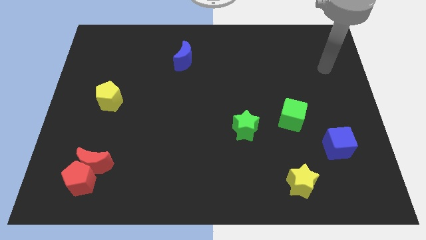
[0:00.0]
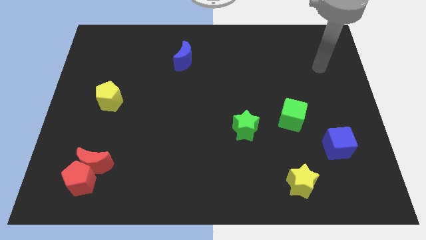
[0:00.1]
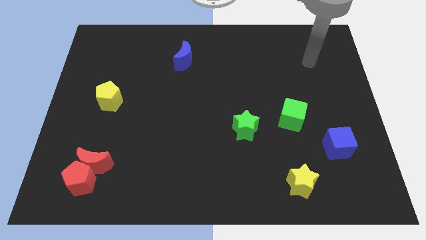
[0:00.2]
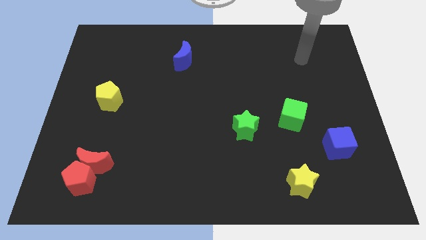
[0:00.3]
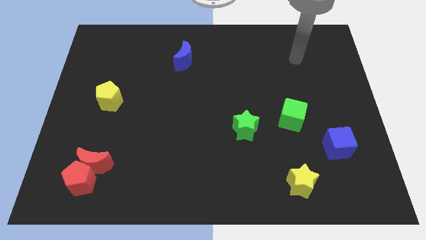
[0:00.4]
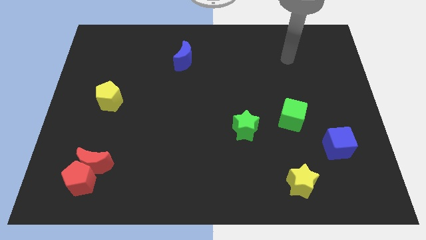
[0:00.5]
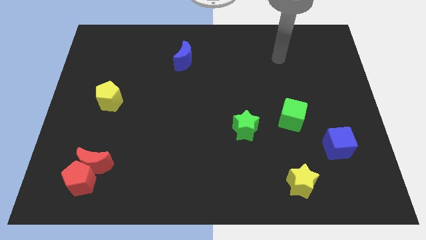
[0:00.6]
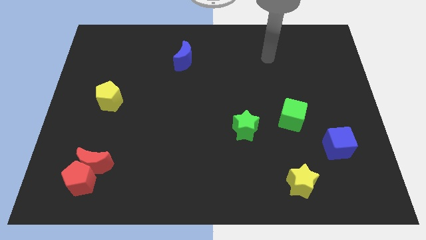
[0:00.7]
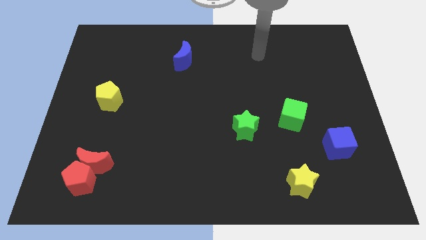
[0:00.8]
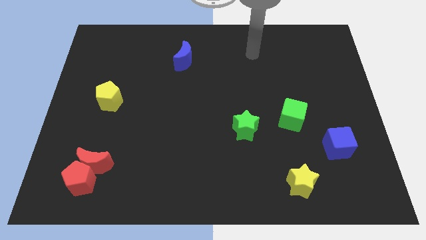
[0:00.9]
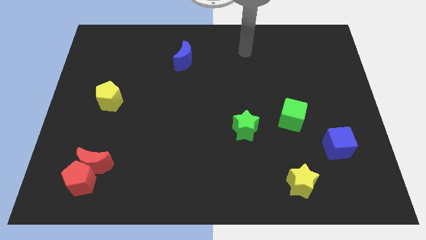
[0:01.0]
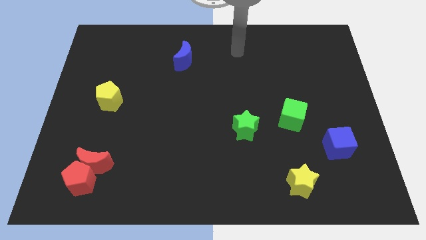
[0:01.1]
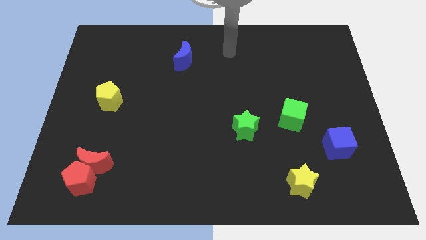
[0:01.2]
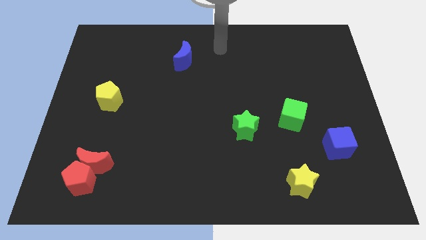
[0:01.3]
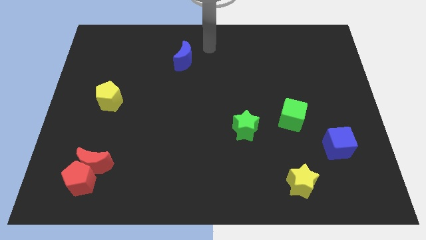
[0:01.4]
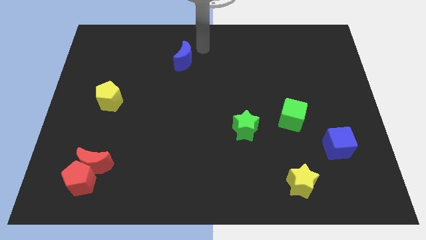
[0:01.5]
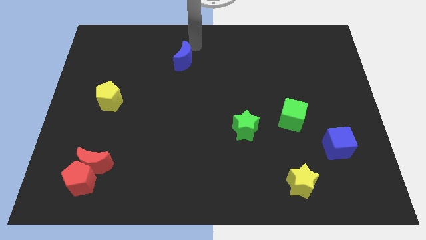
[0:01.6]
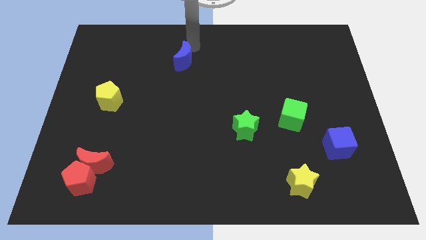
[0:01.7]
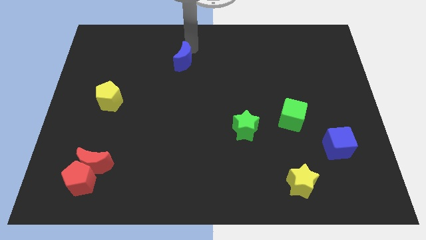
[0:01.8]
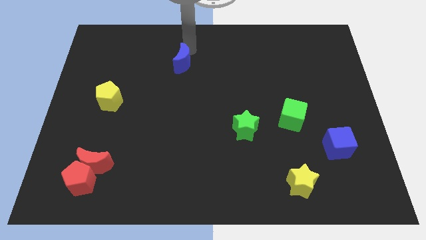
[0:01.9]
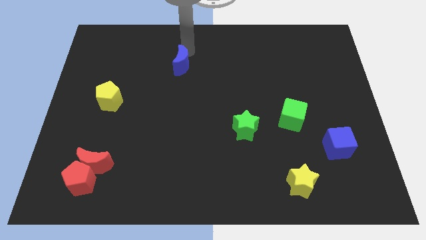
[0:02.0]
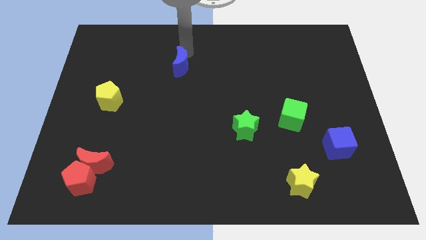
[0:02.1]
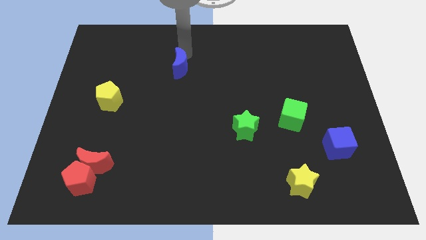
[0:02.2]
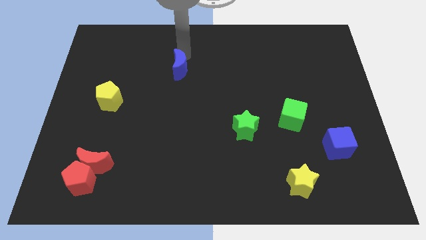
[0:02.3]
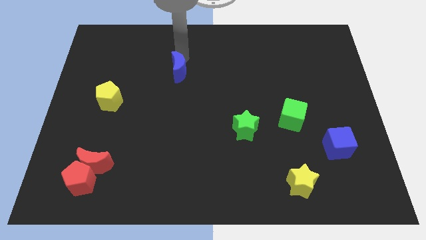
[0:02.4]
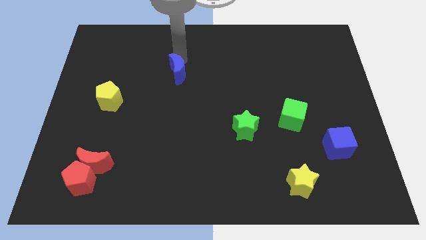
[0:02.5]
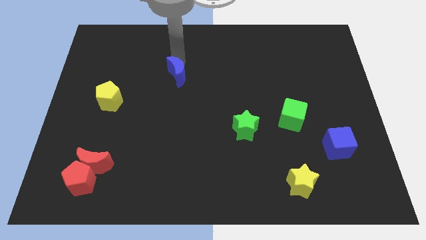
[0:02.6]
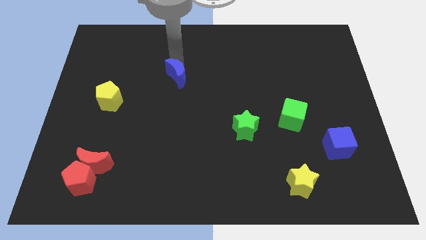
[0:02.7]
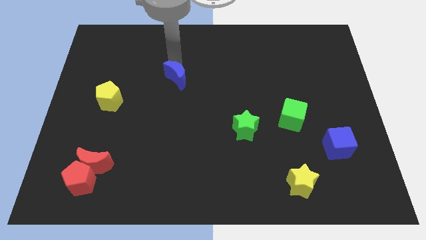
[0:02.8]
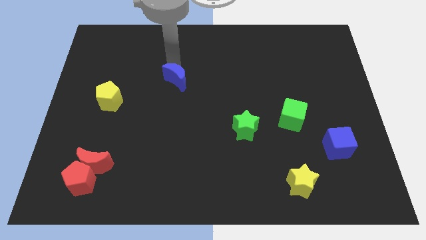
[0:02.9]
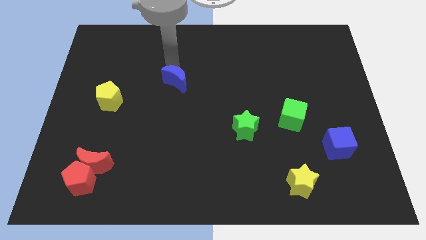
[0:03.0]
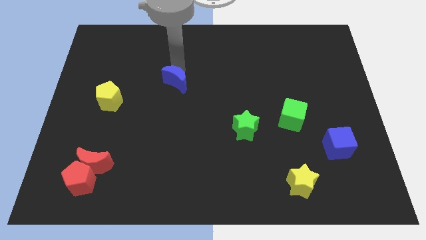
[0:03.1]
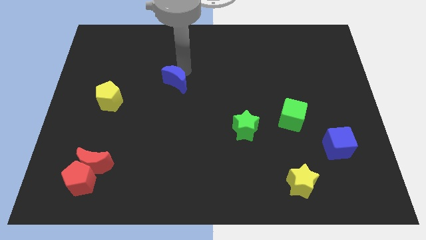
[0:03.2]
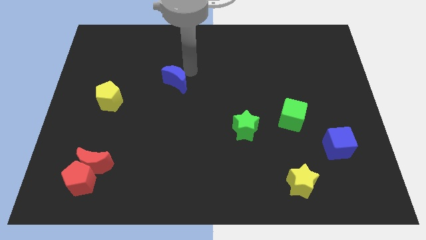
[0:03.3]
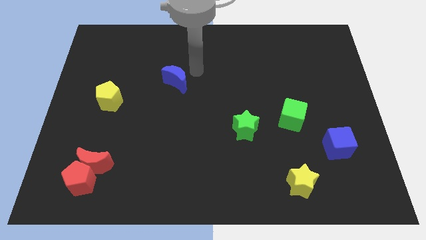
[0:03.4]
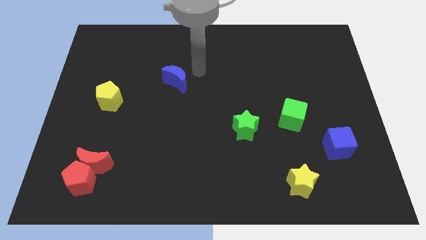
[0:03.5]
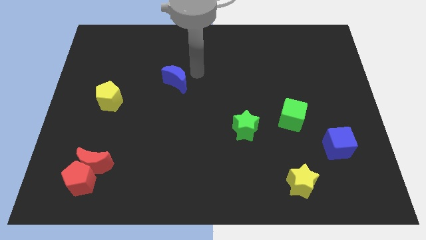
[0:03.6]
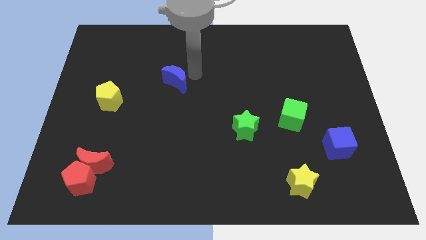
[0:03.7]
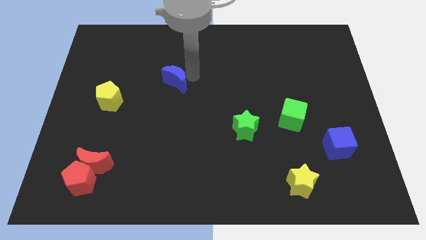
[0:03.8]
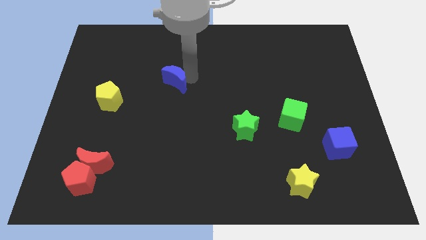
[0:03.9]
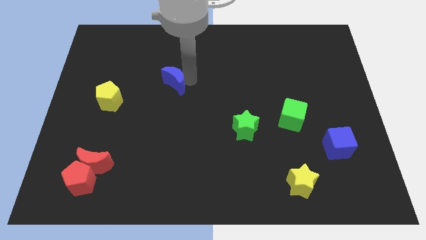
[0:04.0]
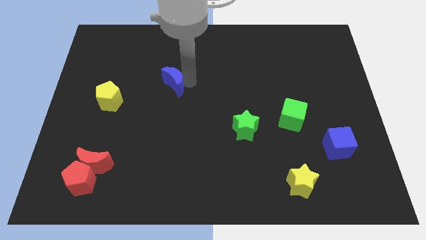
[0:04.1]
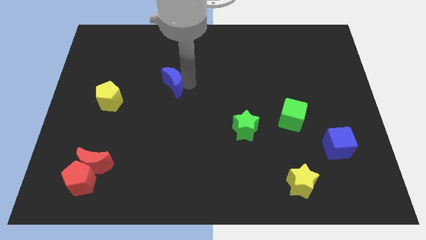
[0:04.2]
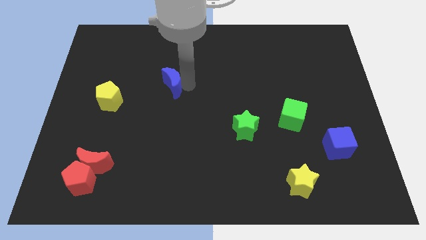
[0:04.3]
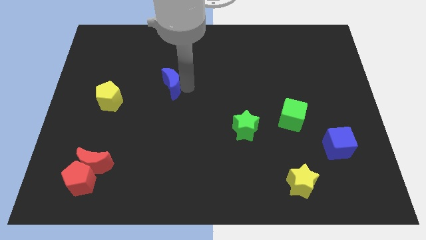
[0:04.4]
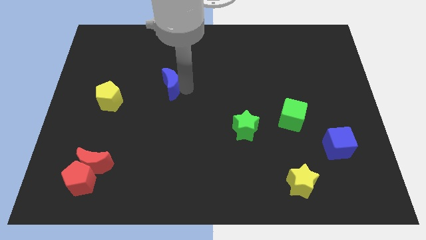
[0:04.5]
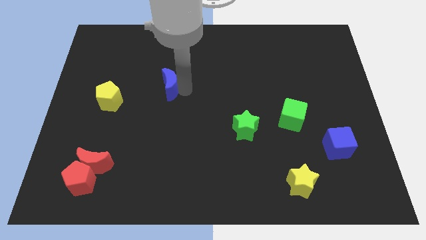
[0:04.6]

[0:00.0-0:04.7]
push the blue moon to the right side of the yellow pentagon

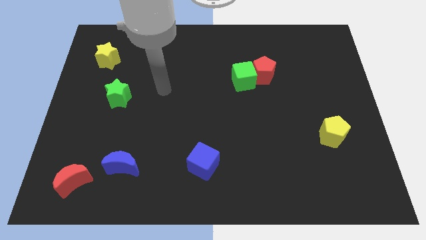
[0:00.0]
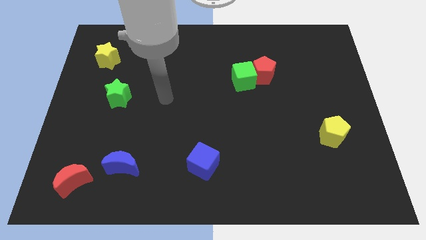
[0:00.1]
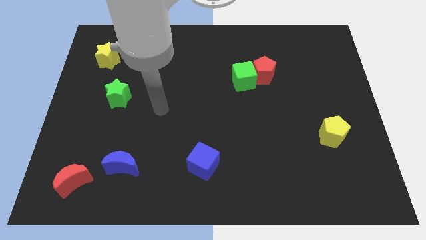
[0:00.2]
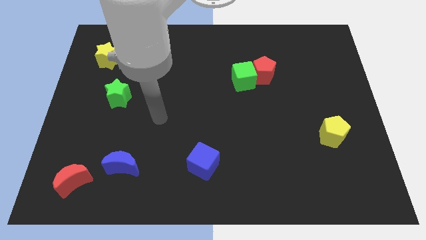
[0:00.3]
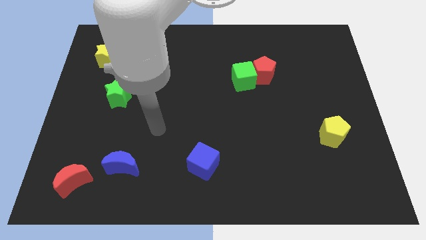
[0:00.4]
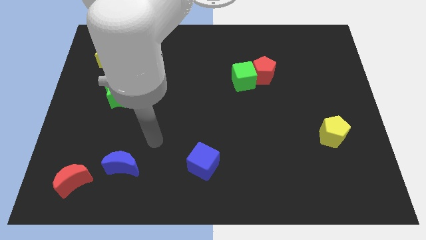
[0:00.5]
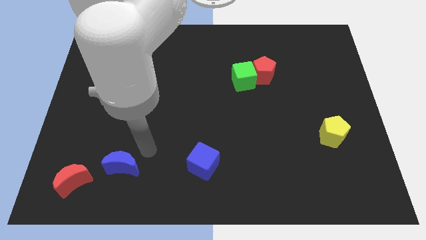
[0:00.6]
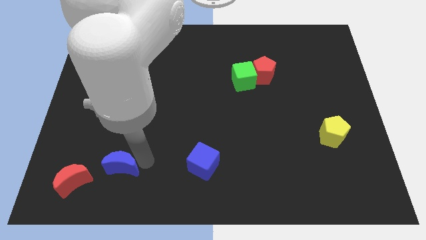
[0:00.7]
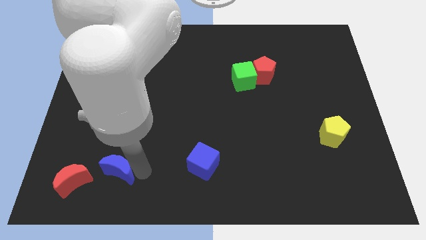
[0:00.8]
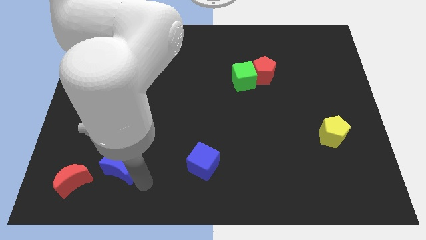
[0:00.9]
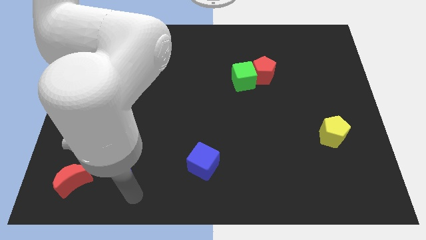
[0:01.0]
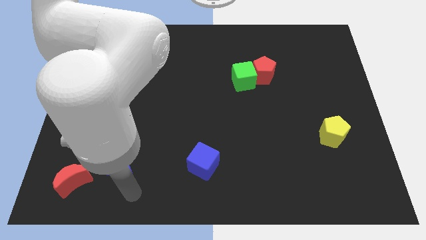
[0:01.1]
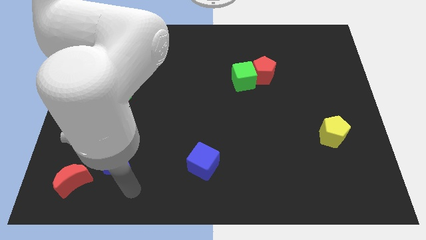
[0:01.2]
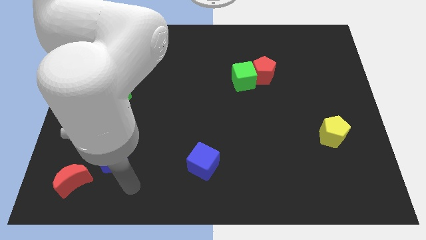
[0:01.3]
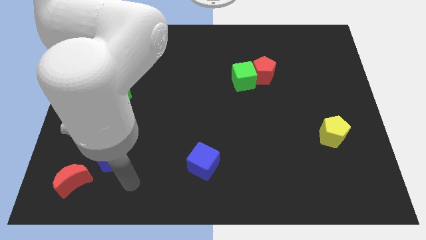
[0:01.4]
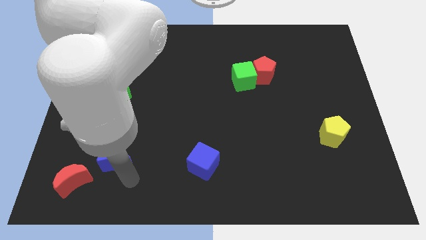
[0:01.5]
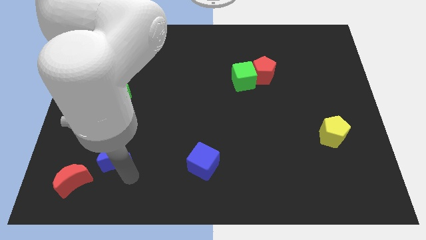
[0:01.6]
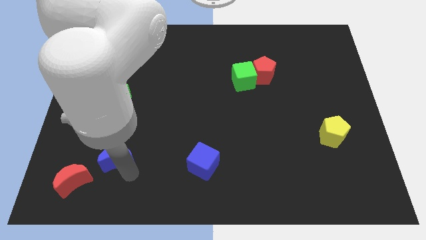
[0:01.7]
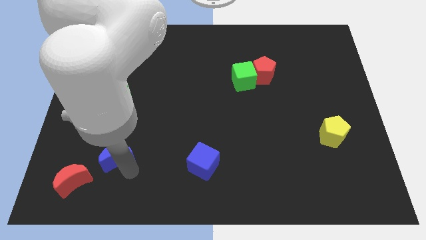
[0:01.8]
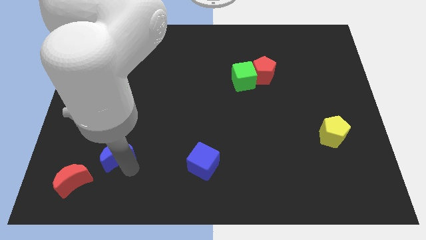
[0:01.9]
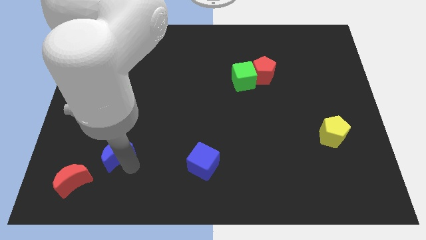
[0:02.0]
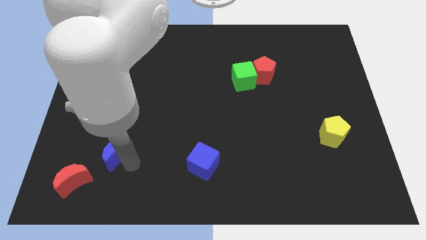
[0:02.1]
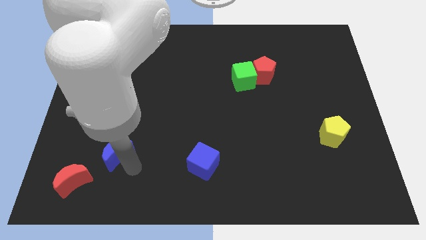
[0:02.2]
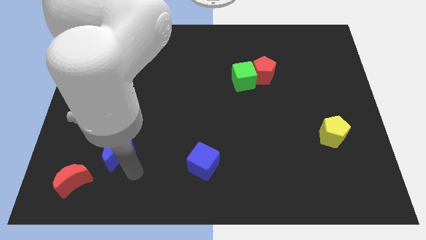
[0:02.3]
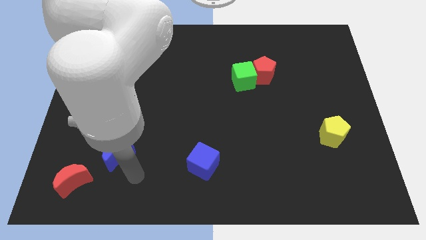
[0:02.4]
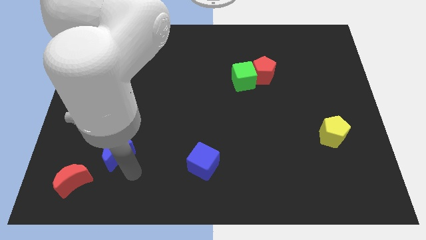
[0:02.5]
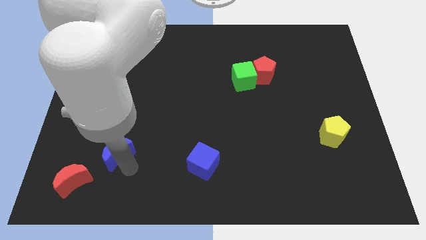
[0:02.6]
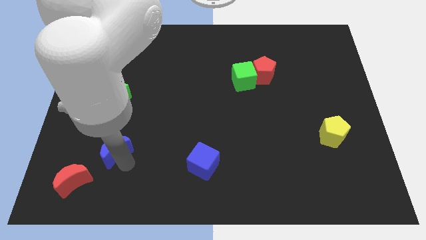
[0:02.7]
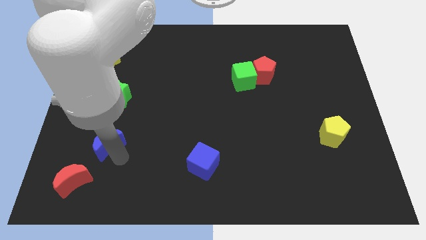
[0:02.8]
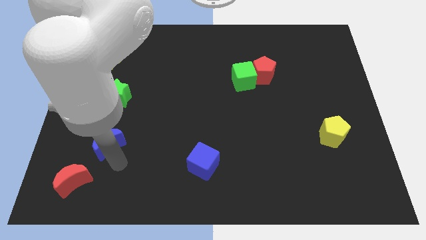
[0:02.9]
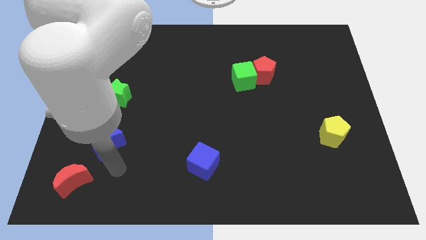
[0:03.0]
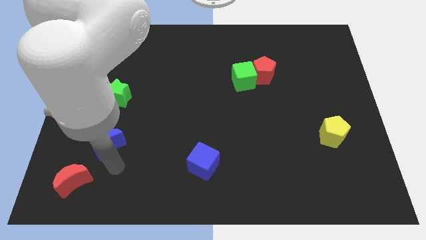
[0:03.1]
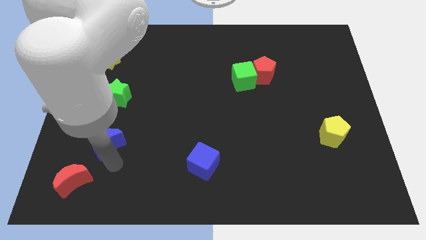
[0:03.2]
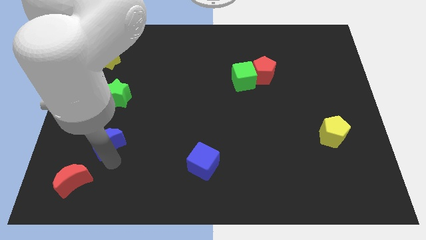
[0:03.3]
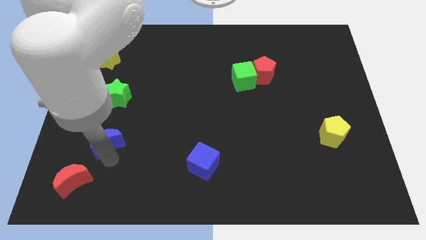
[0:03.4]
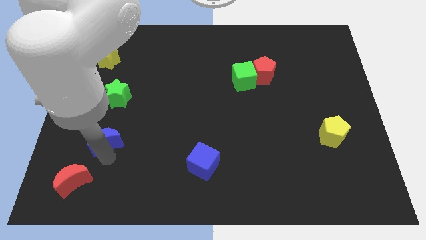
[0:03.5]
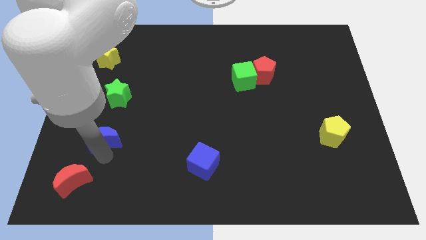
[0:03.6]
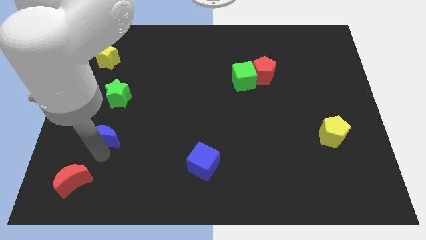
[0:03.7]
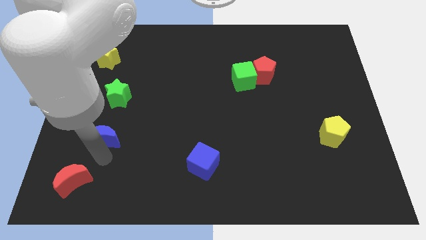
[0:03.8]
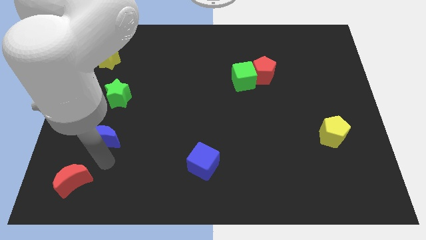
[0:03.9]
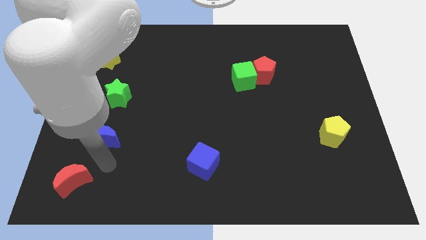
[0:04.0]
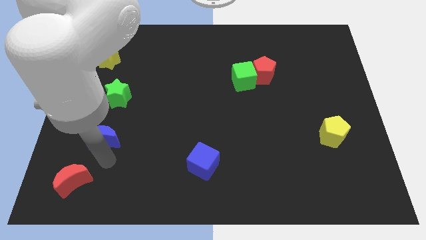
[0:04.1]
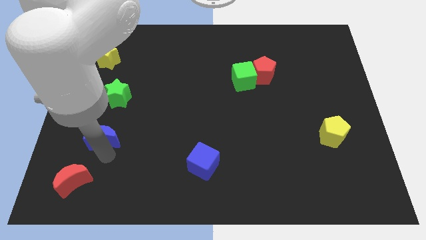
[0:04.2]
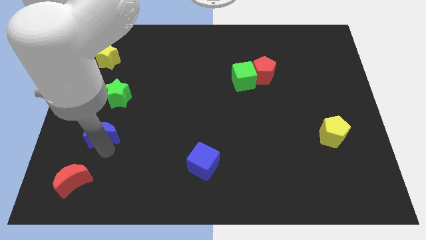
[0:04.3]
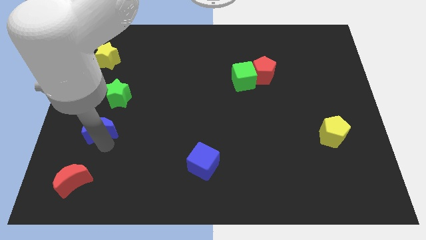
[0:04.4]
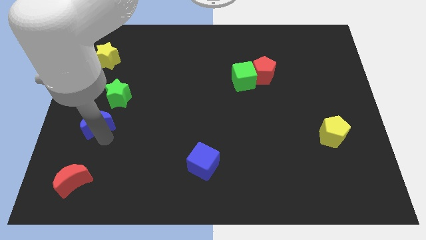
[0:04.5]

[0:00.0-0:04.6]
slide the blue moon to the bottom left of the green star
